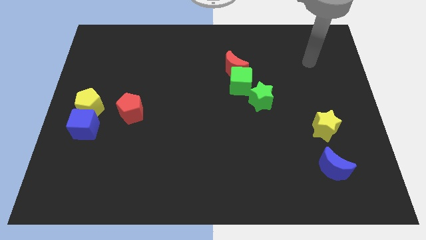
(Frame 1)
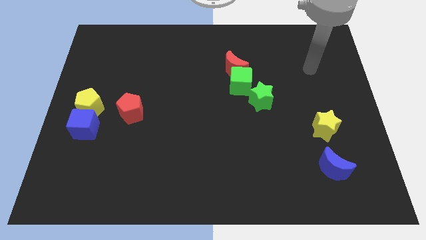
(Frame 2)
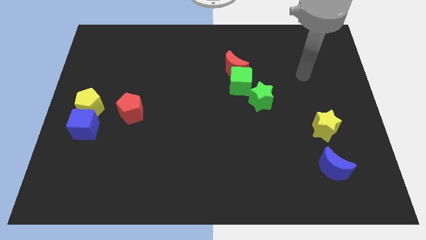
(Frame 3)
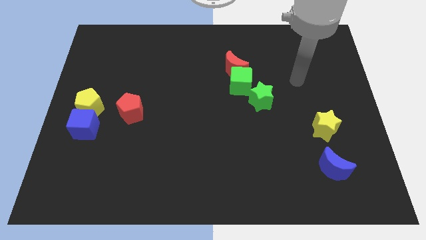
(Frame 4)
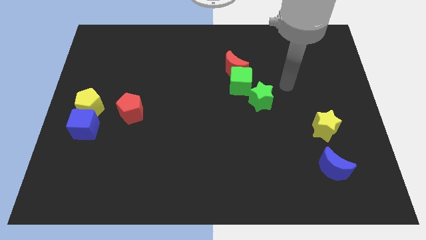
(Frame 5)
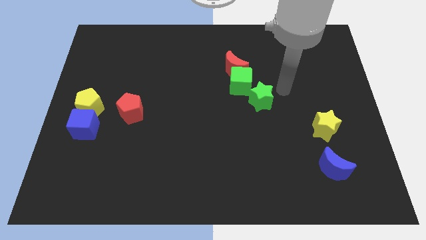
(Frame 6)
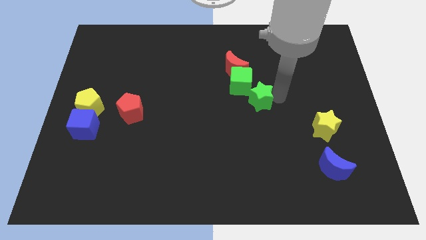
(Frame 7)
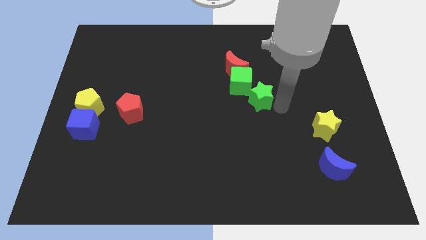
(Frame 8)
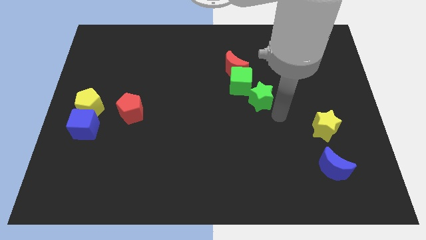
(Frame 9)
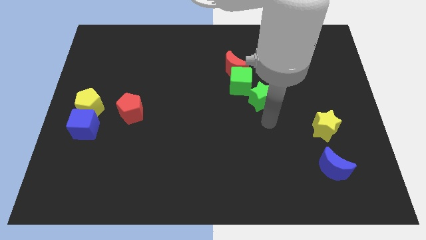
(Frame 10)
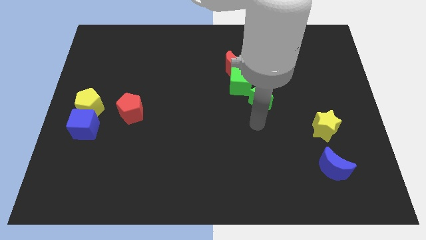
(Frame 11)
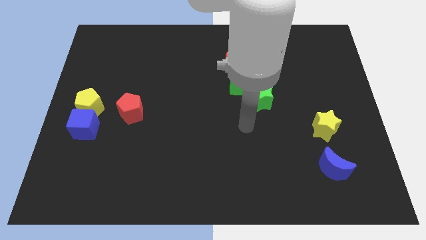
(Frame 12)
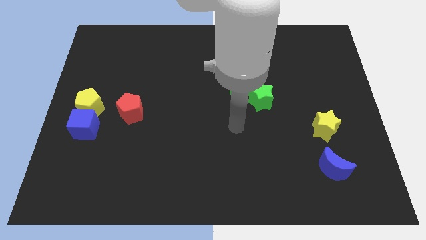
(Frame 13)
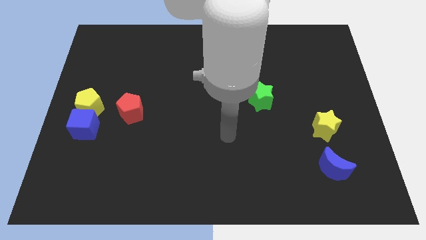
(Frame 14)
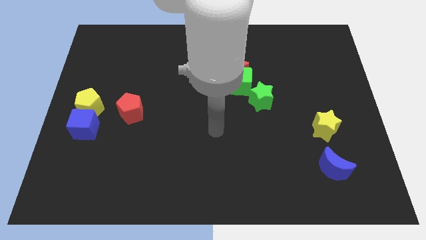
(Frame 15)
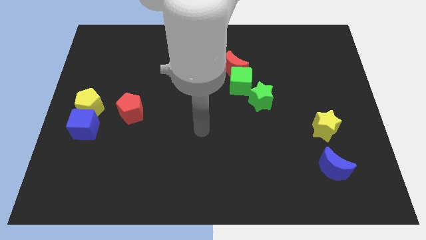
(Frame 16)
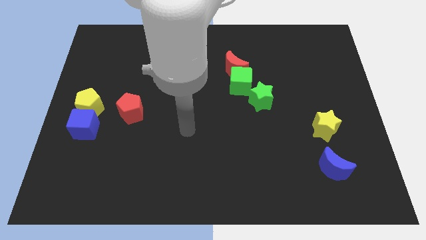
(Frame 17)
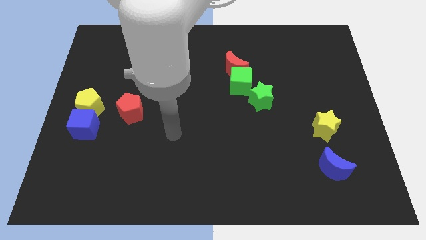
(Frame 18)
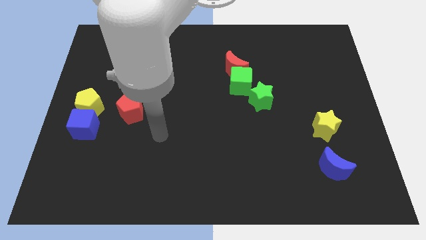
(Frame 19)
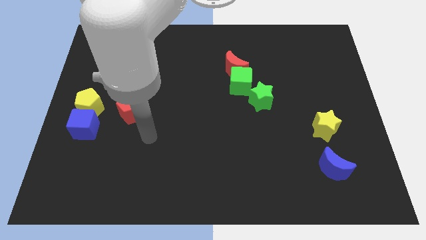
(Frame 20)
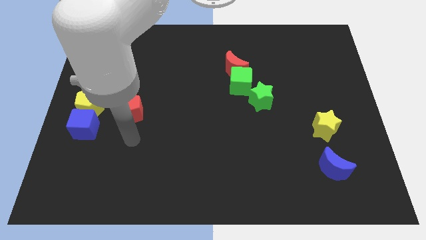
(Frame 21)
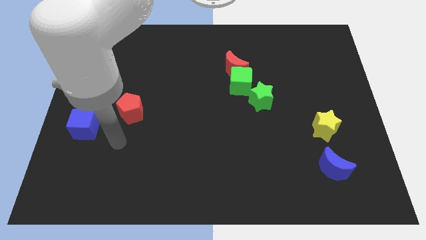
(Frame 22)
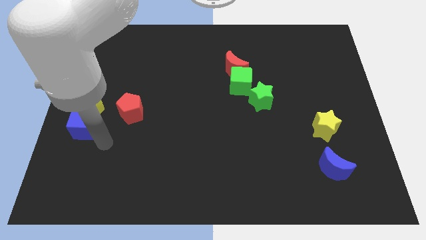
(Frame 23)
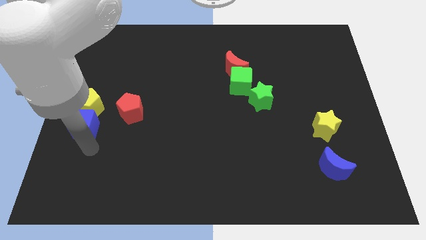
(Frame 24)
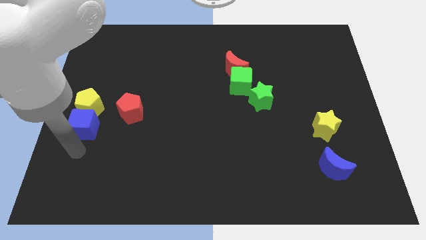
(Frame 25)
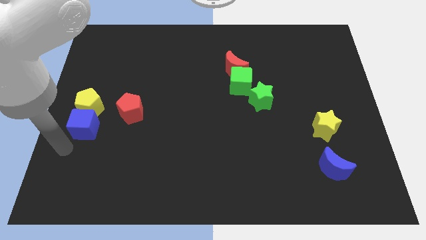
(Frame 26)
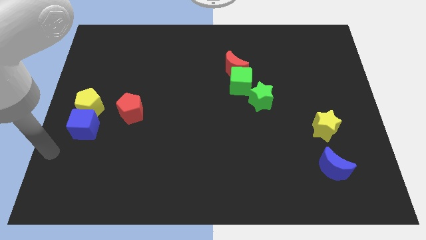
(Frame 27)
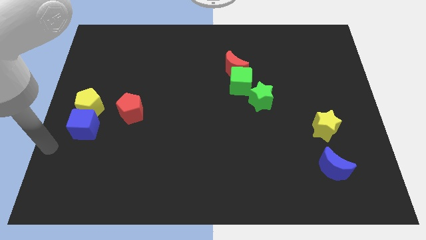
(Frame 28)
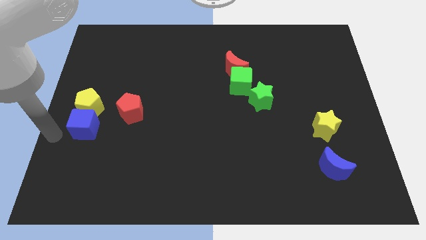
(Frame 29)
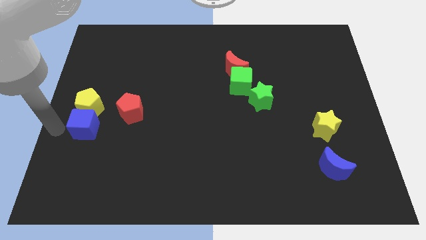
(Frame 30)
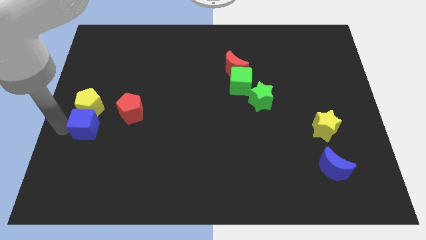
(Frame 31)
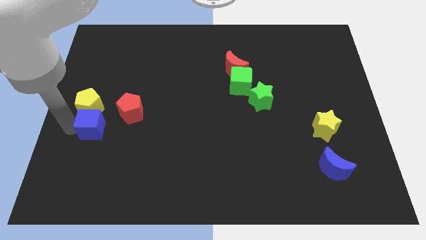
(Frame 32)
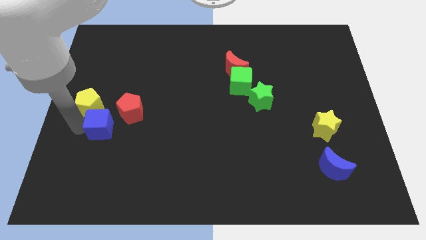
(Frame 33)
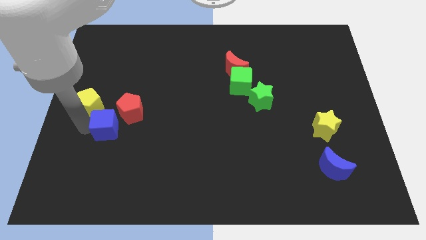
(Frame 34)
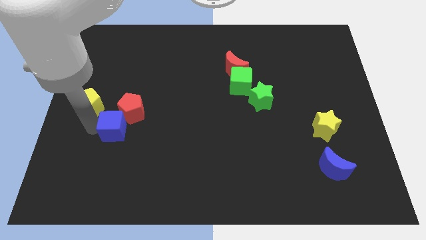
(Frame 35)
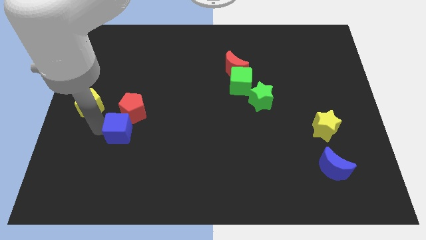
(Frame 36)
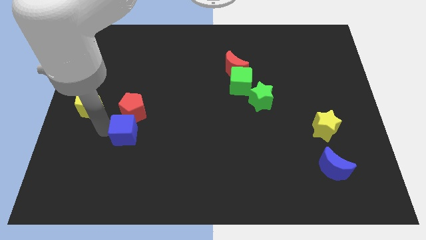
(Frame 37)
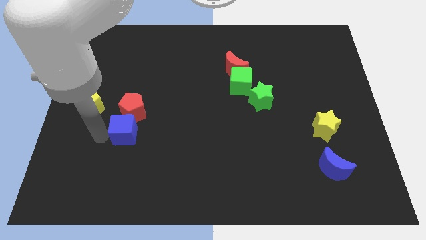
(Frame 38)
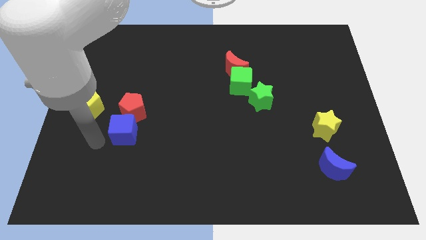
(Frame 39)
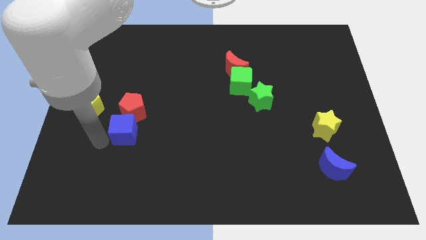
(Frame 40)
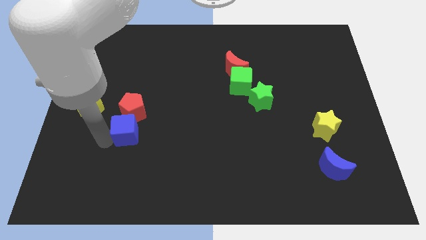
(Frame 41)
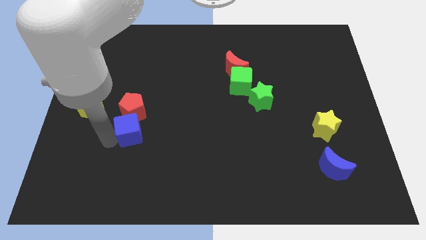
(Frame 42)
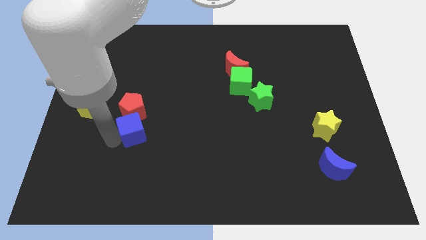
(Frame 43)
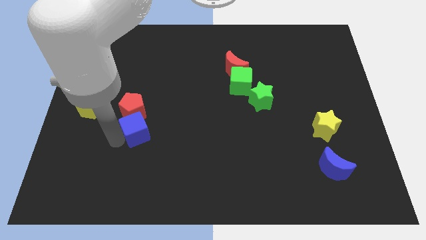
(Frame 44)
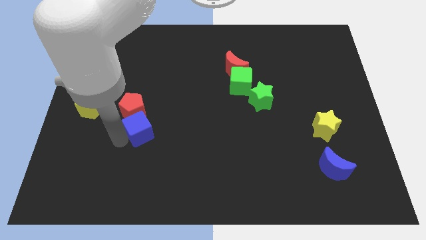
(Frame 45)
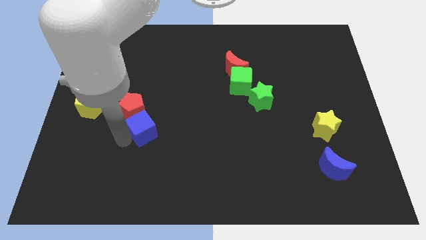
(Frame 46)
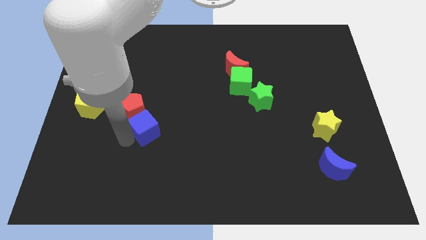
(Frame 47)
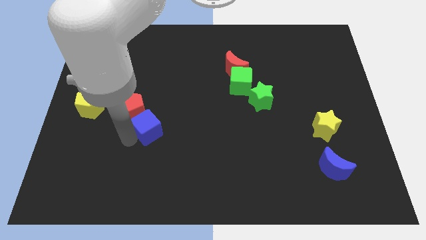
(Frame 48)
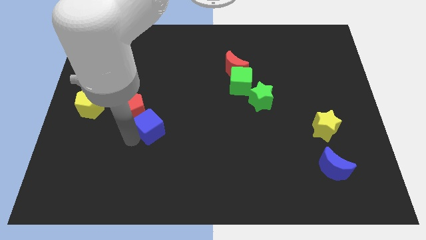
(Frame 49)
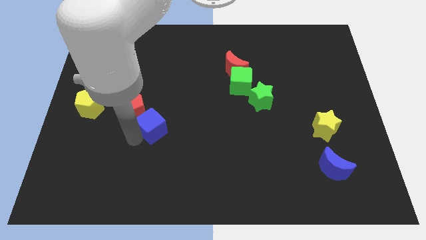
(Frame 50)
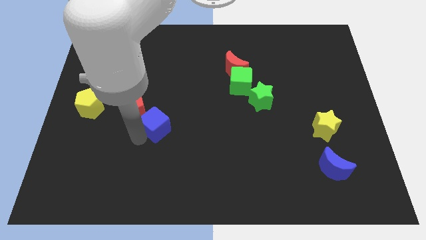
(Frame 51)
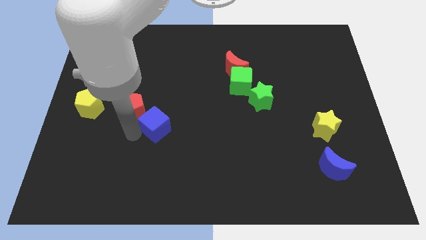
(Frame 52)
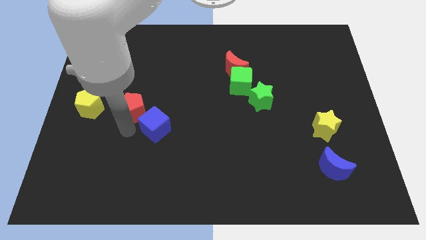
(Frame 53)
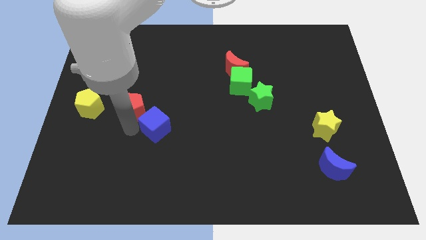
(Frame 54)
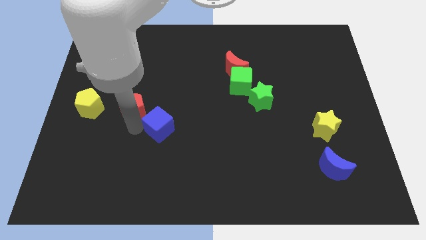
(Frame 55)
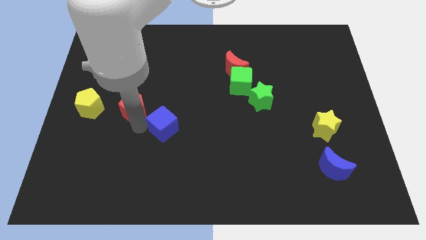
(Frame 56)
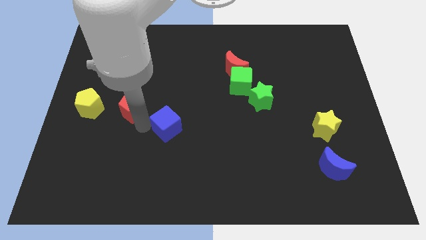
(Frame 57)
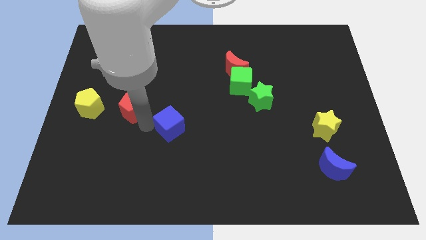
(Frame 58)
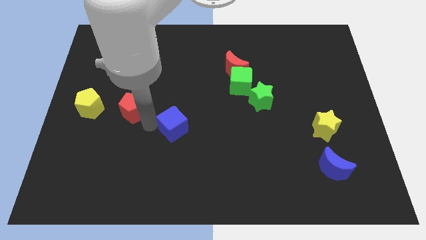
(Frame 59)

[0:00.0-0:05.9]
push the blue cube to the right

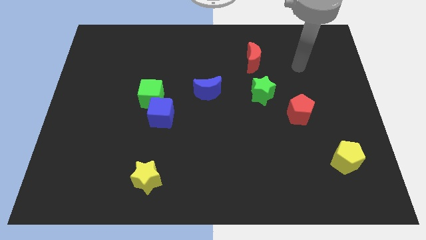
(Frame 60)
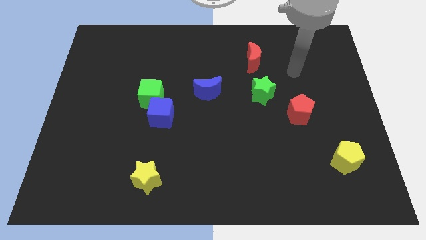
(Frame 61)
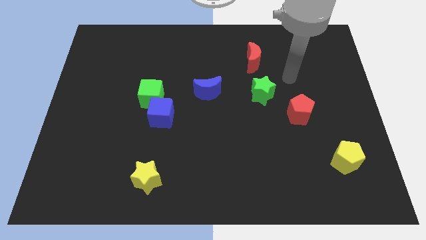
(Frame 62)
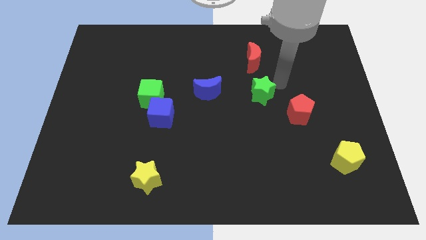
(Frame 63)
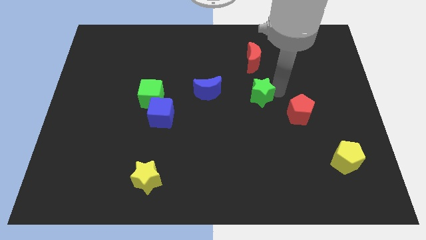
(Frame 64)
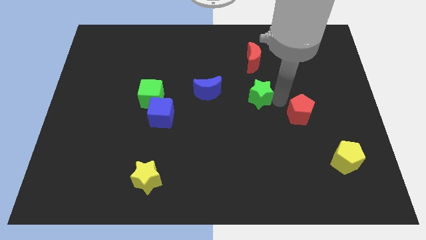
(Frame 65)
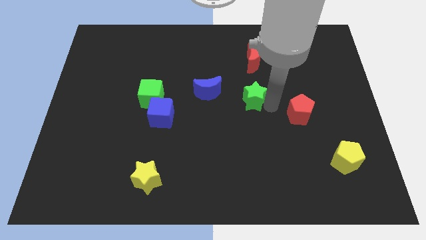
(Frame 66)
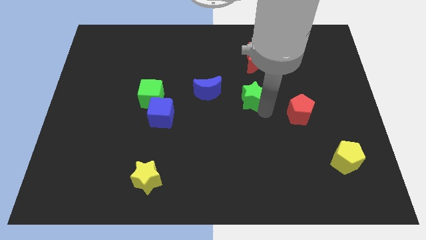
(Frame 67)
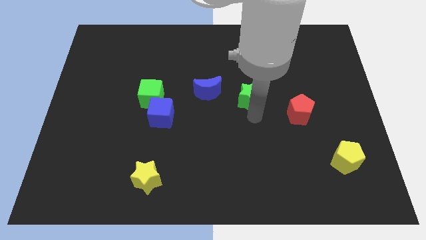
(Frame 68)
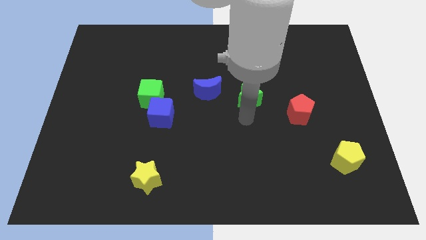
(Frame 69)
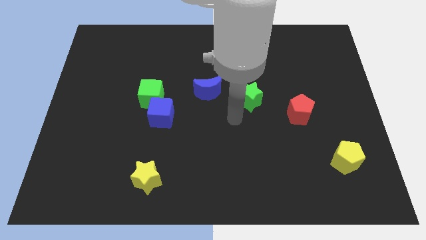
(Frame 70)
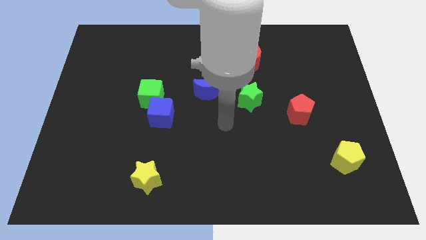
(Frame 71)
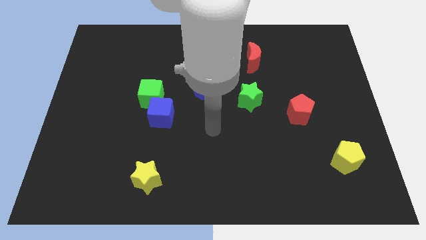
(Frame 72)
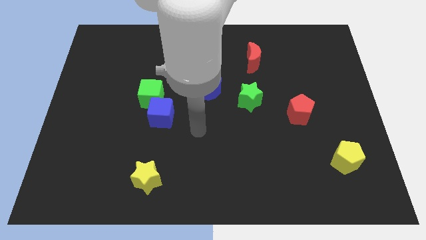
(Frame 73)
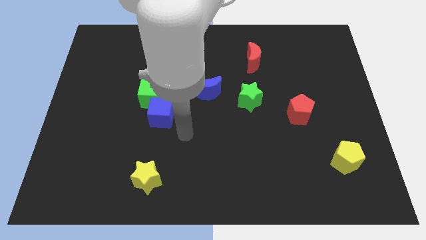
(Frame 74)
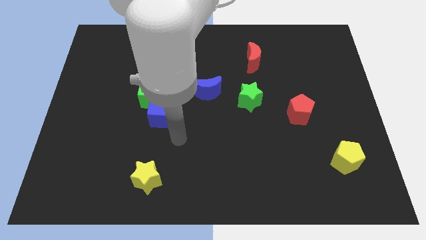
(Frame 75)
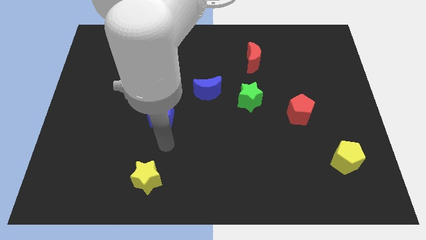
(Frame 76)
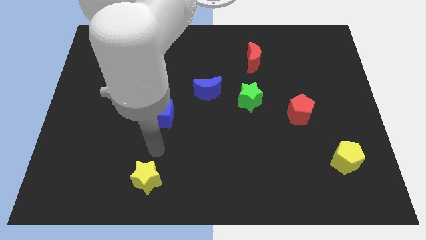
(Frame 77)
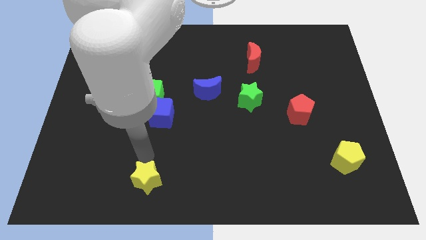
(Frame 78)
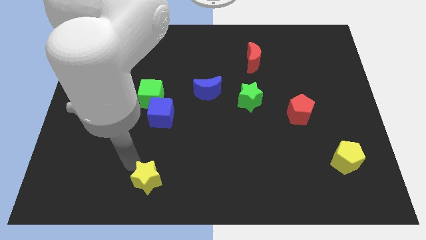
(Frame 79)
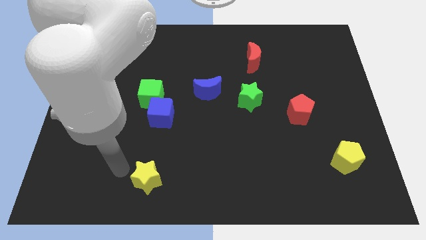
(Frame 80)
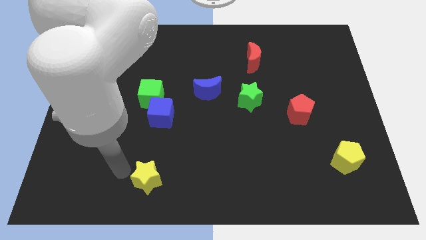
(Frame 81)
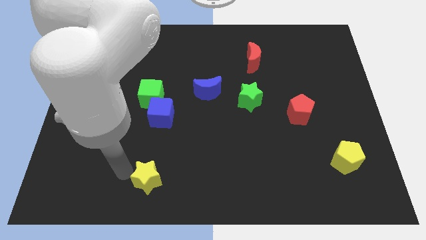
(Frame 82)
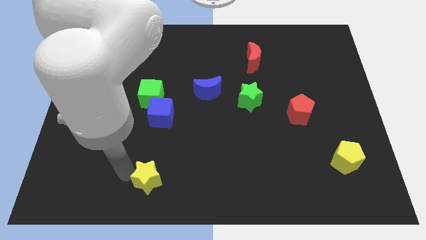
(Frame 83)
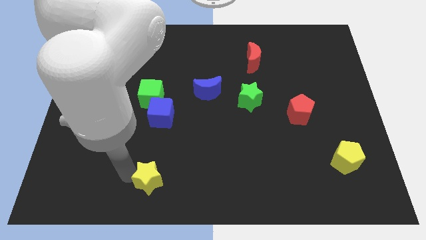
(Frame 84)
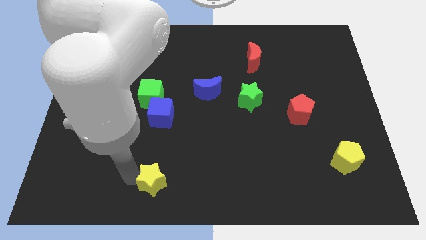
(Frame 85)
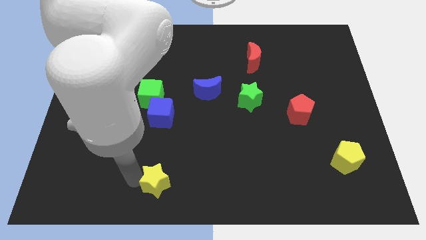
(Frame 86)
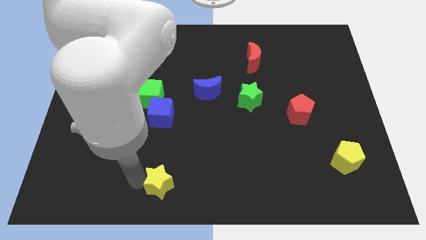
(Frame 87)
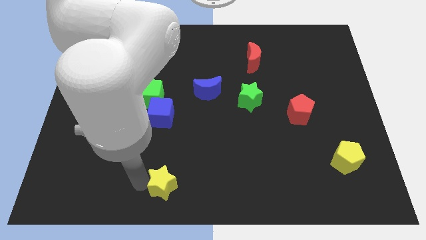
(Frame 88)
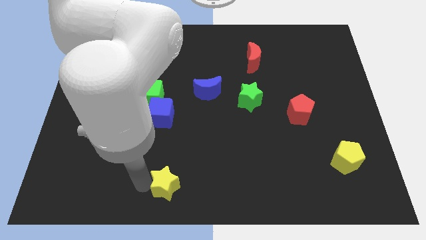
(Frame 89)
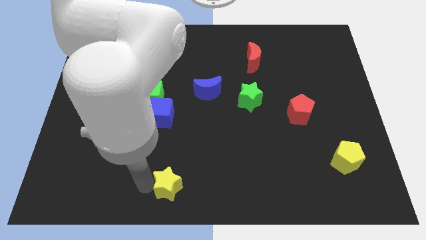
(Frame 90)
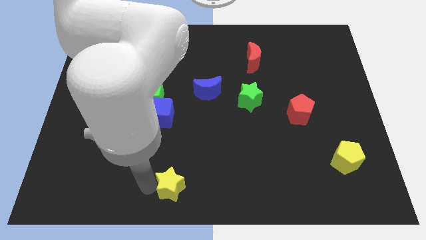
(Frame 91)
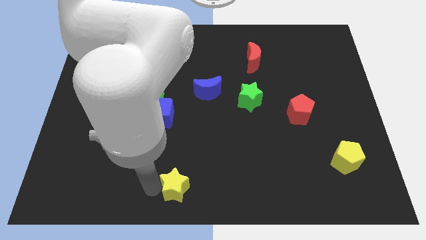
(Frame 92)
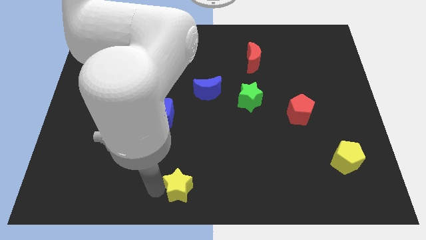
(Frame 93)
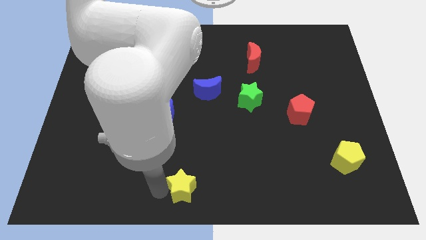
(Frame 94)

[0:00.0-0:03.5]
slide the yellow star somewhat to the right
